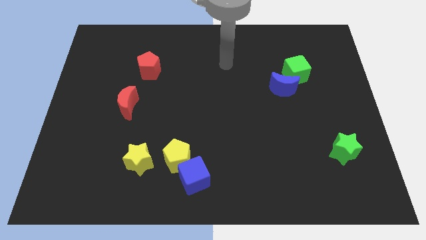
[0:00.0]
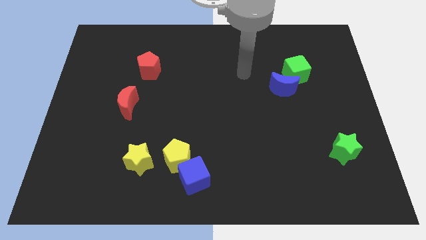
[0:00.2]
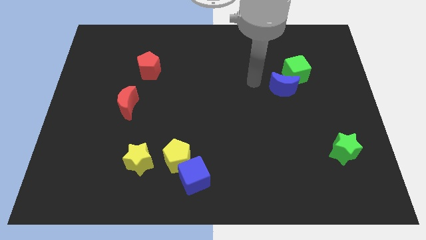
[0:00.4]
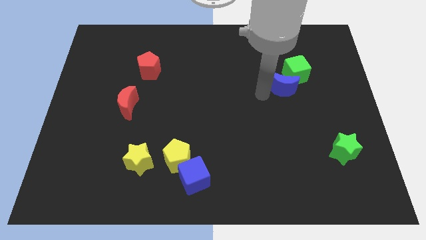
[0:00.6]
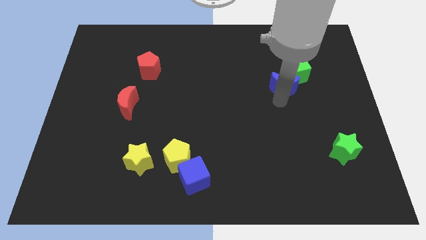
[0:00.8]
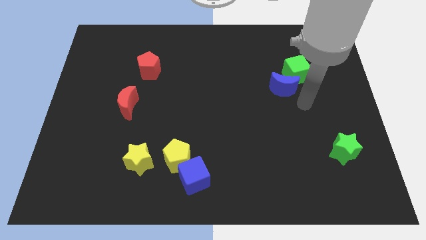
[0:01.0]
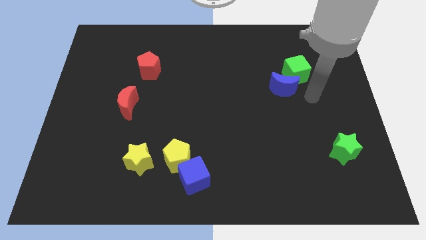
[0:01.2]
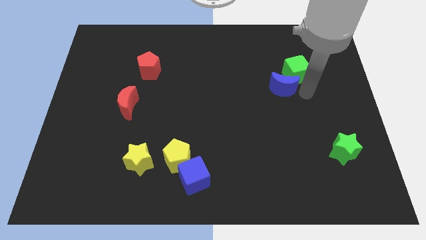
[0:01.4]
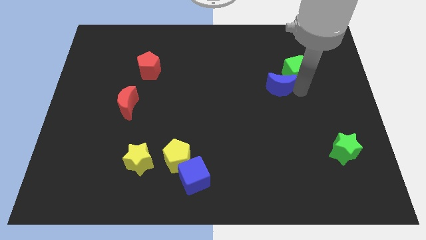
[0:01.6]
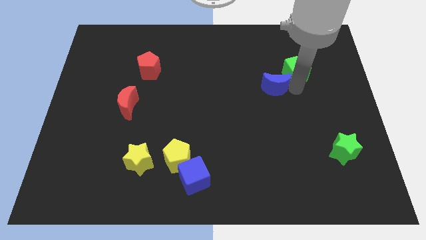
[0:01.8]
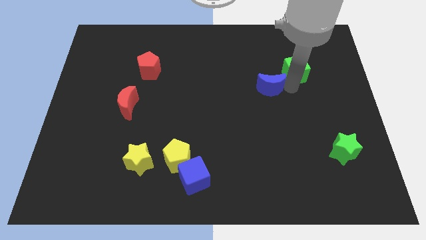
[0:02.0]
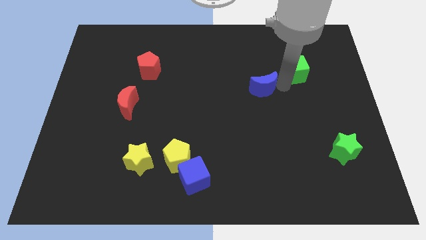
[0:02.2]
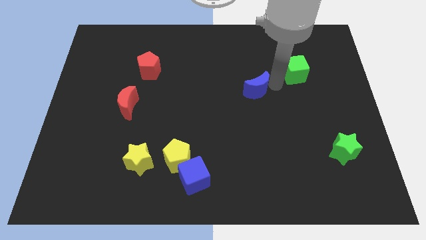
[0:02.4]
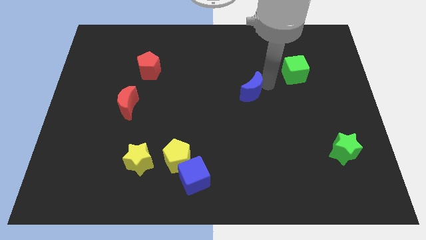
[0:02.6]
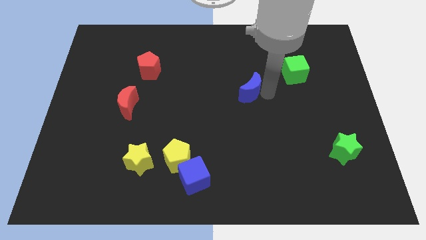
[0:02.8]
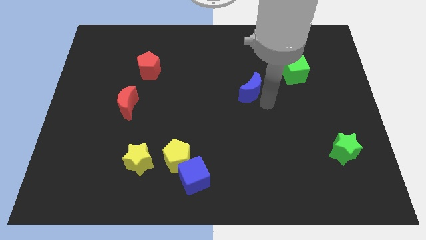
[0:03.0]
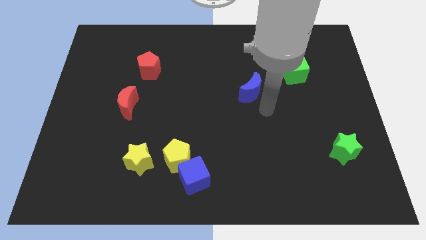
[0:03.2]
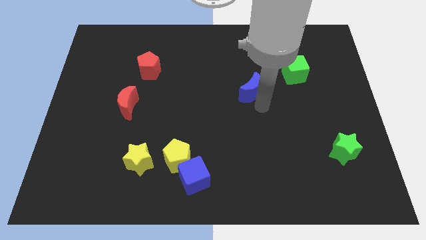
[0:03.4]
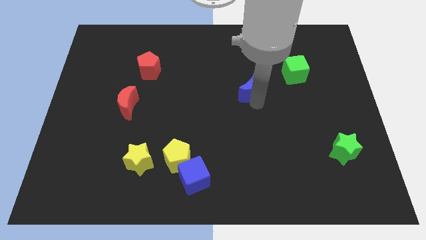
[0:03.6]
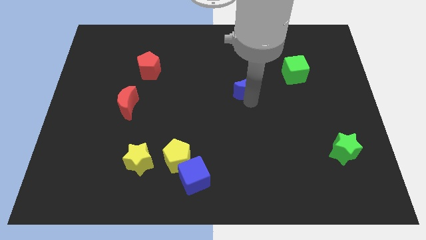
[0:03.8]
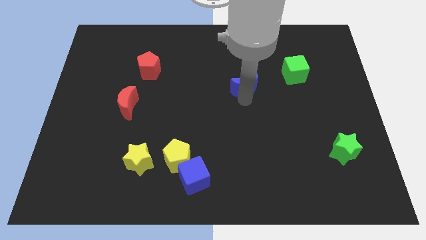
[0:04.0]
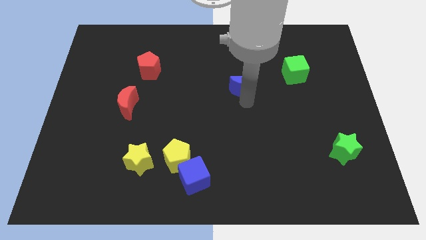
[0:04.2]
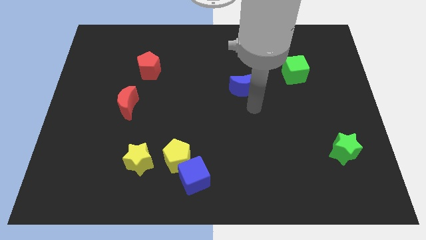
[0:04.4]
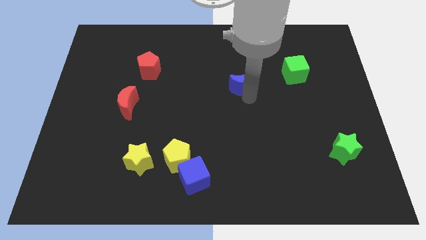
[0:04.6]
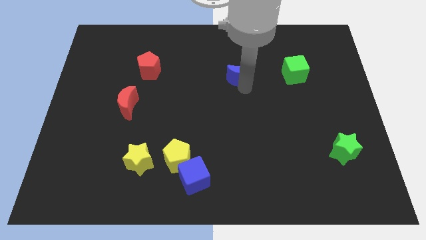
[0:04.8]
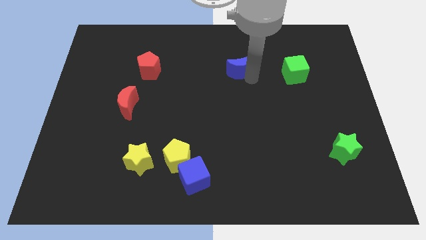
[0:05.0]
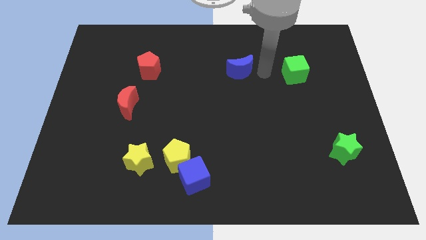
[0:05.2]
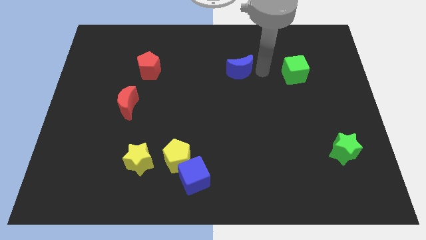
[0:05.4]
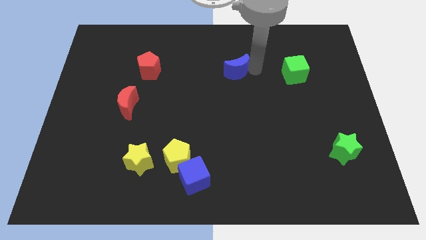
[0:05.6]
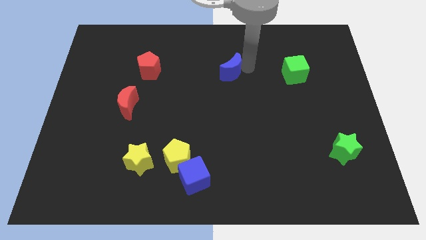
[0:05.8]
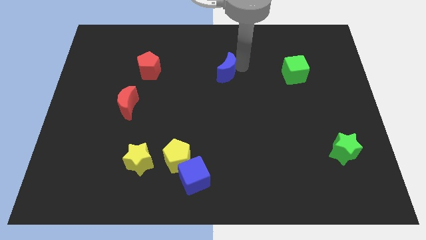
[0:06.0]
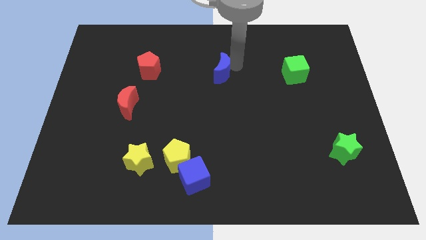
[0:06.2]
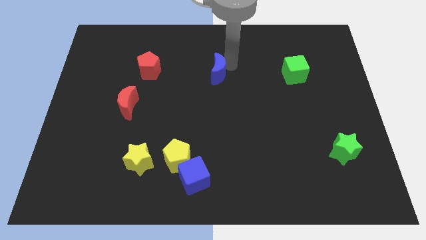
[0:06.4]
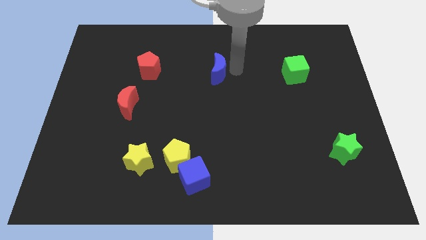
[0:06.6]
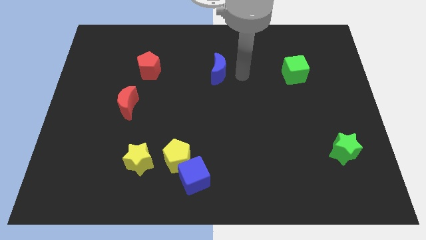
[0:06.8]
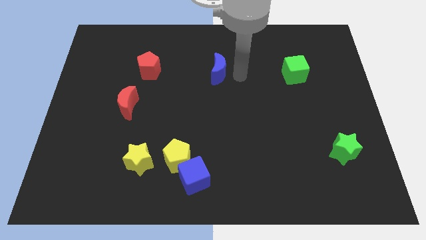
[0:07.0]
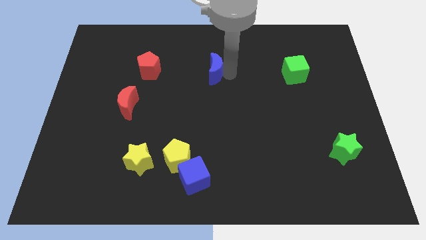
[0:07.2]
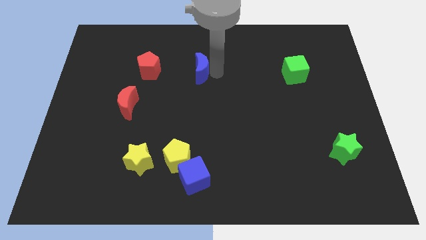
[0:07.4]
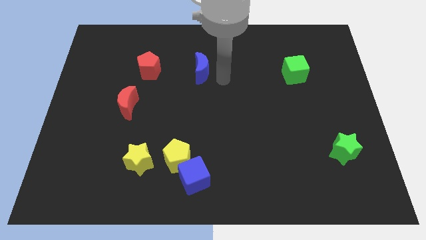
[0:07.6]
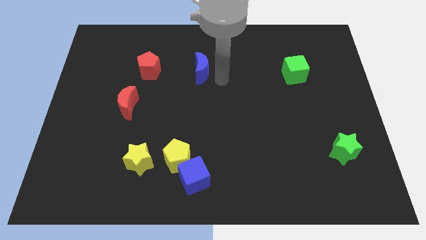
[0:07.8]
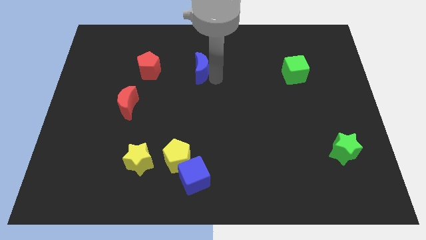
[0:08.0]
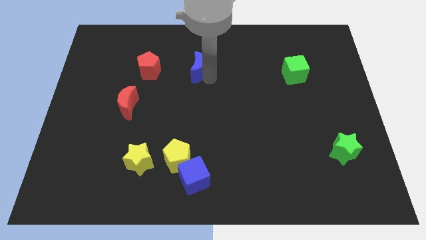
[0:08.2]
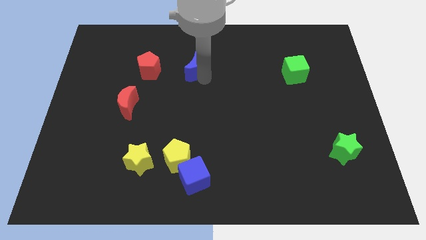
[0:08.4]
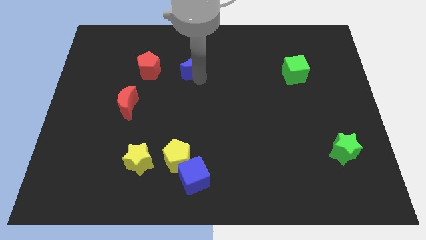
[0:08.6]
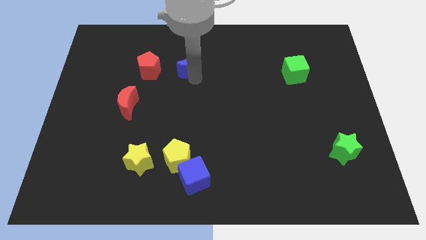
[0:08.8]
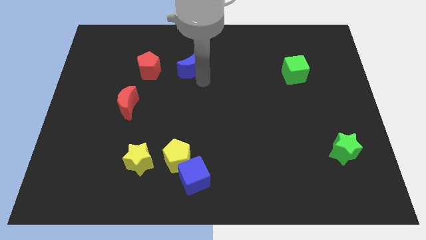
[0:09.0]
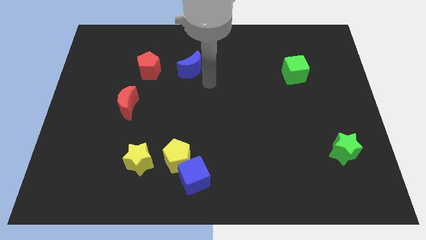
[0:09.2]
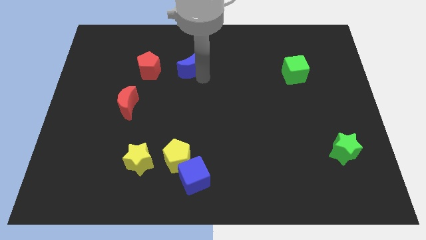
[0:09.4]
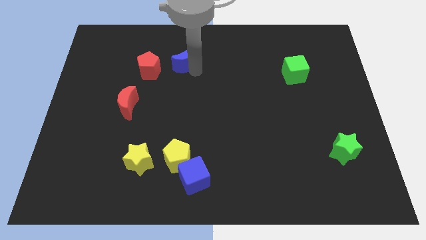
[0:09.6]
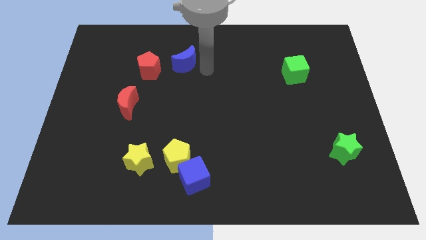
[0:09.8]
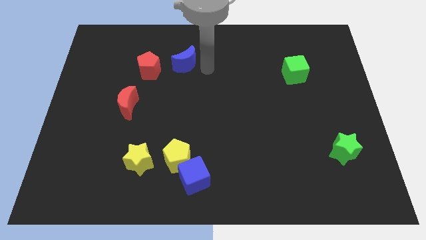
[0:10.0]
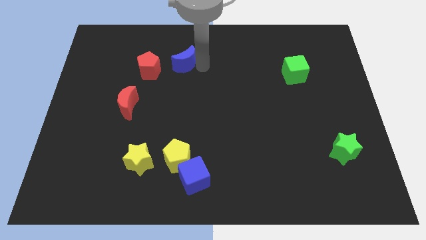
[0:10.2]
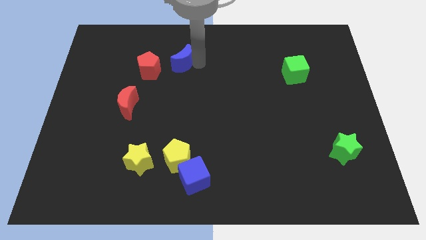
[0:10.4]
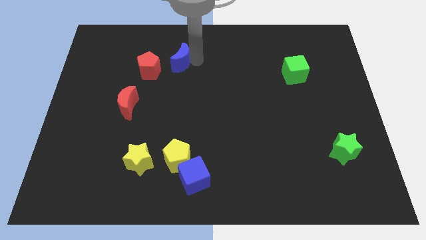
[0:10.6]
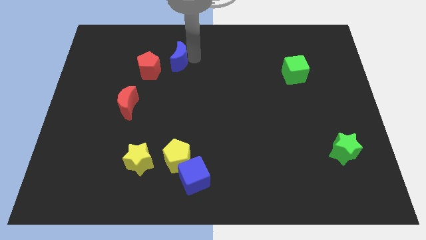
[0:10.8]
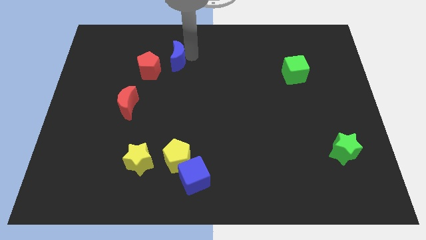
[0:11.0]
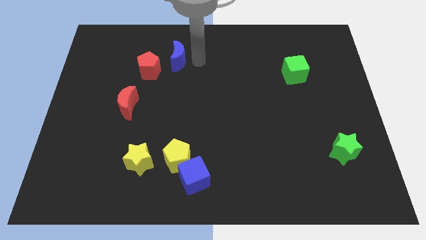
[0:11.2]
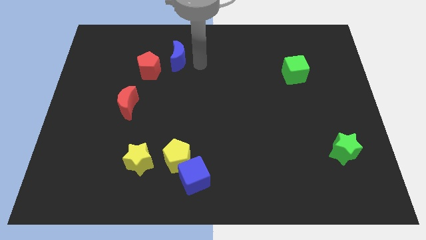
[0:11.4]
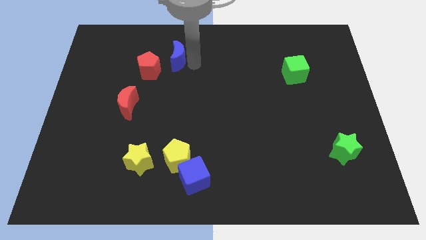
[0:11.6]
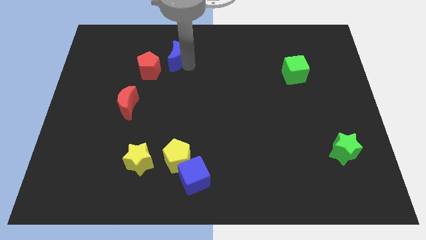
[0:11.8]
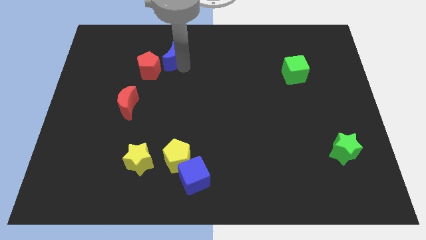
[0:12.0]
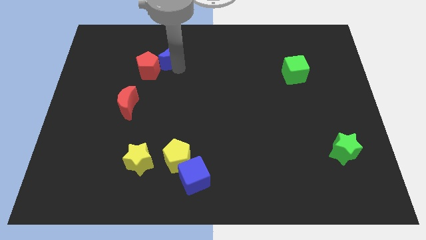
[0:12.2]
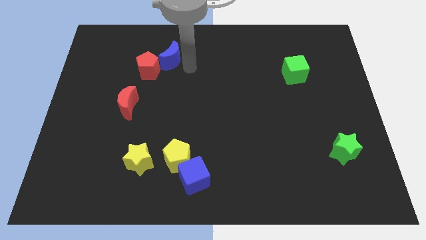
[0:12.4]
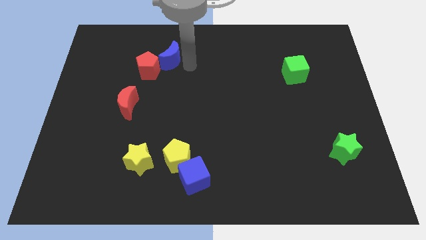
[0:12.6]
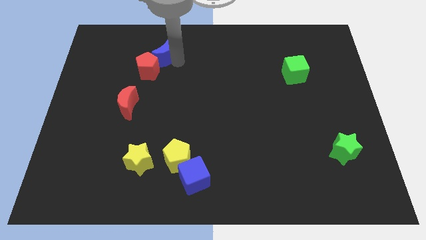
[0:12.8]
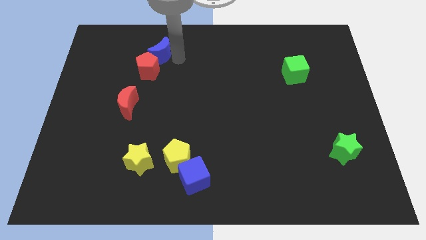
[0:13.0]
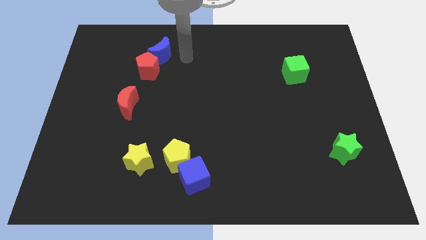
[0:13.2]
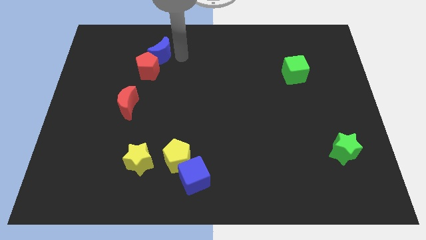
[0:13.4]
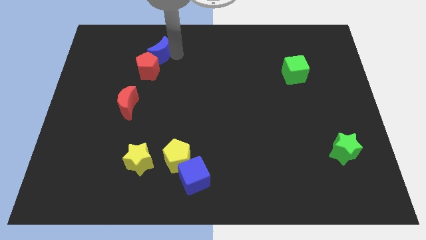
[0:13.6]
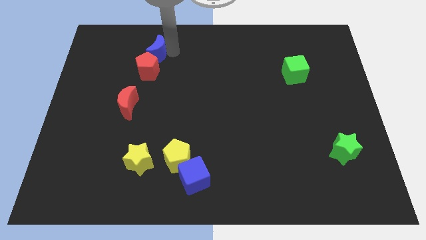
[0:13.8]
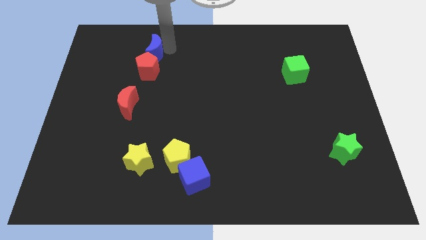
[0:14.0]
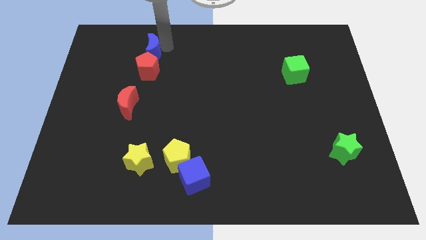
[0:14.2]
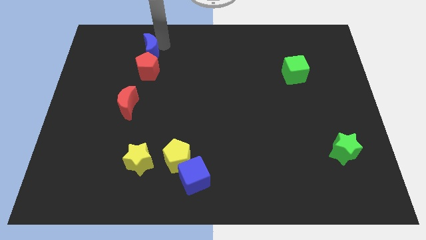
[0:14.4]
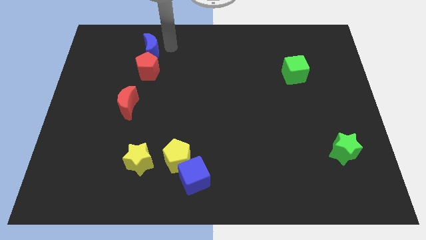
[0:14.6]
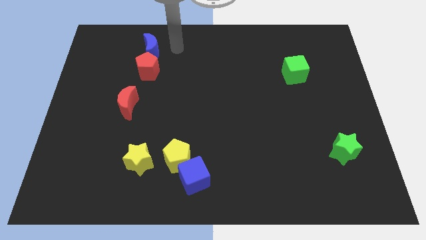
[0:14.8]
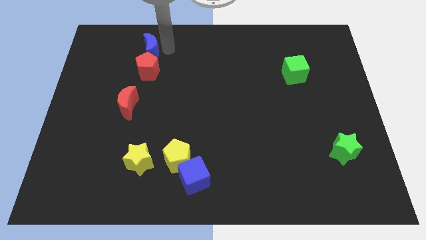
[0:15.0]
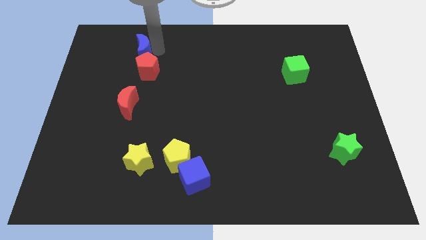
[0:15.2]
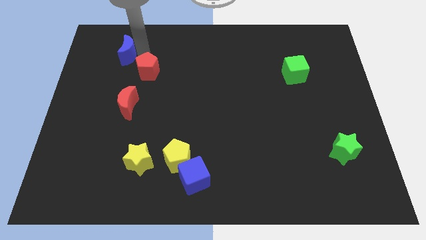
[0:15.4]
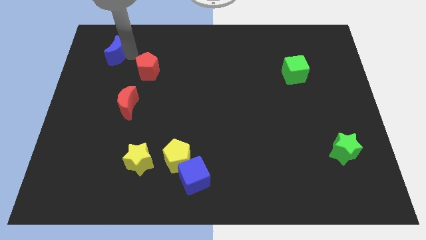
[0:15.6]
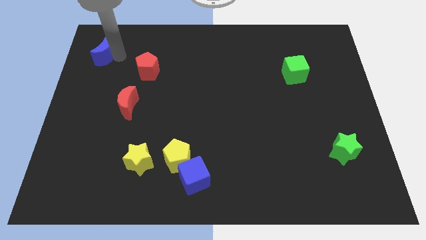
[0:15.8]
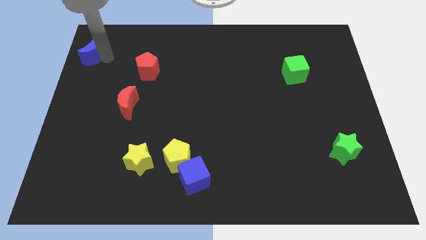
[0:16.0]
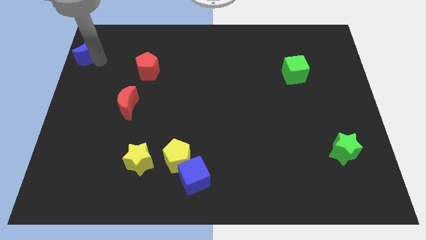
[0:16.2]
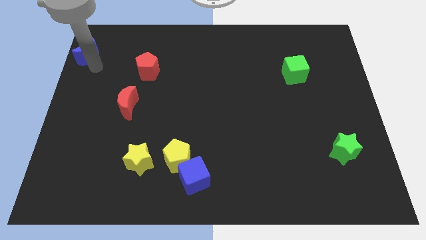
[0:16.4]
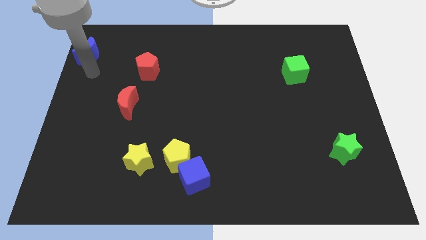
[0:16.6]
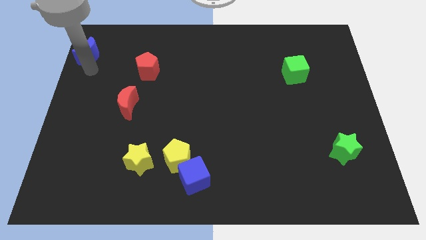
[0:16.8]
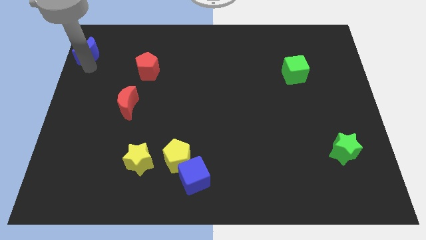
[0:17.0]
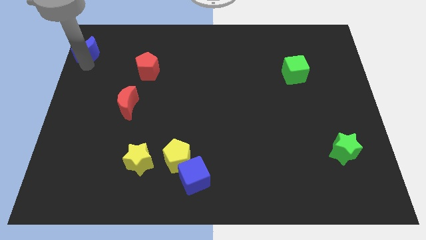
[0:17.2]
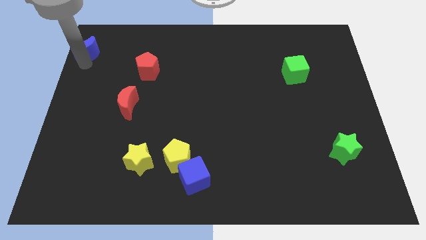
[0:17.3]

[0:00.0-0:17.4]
put the blue moon to the top left
